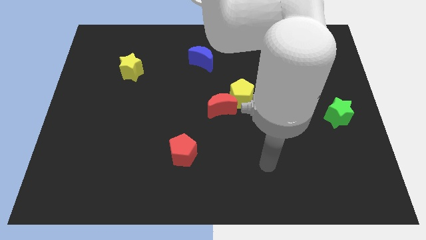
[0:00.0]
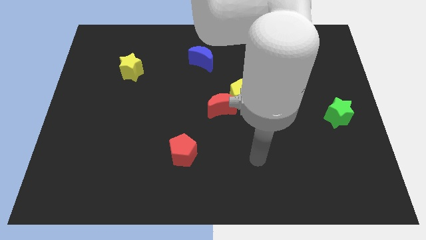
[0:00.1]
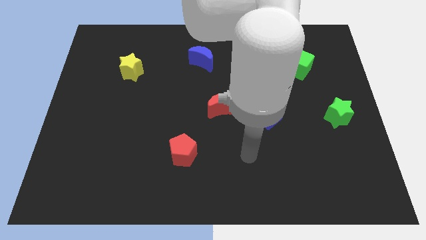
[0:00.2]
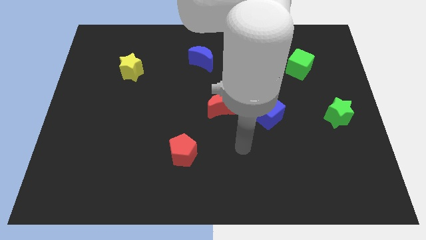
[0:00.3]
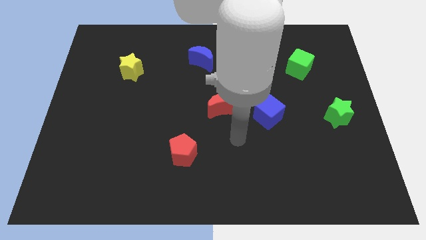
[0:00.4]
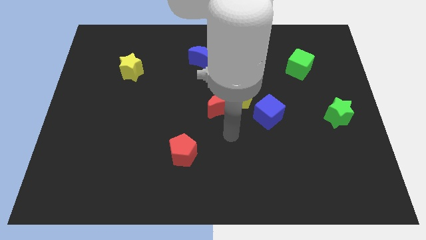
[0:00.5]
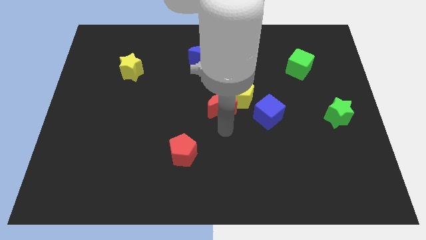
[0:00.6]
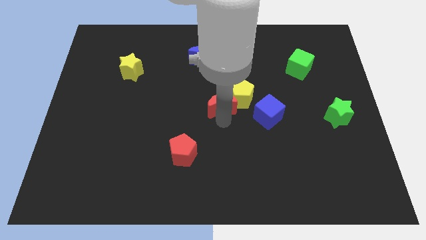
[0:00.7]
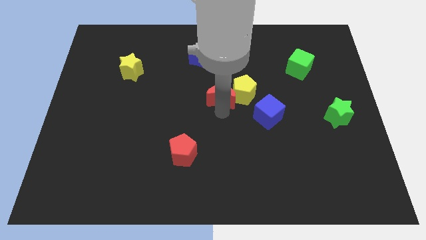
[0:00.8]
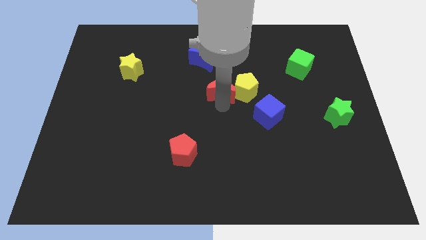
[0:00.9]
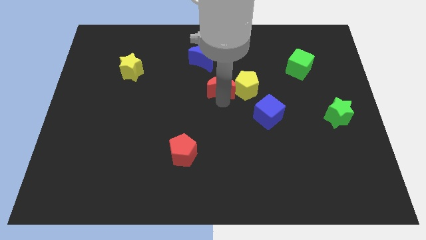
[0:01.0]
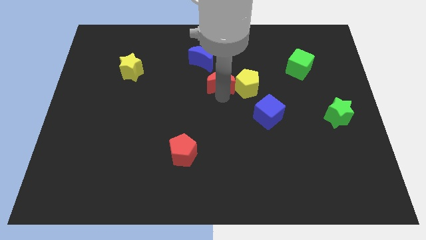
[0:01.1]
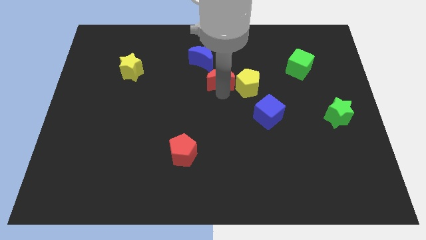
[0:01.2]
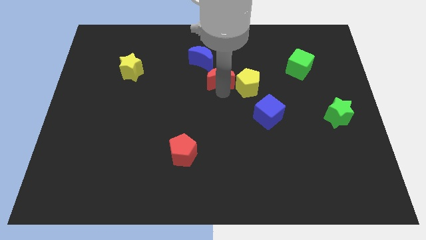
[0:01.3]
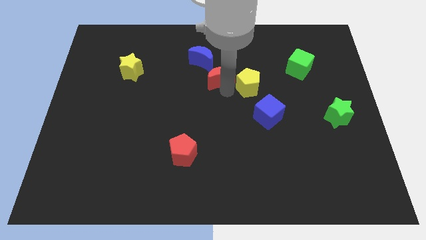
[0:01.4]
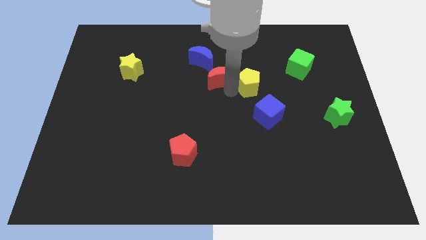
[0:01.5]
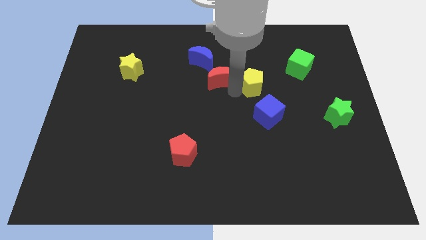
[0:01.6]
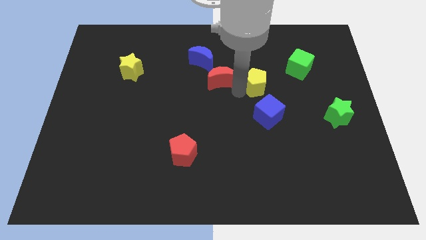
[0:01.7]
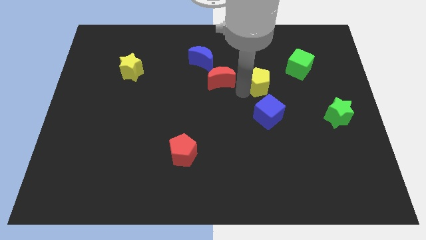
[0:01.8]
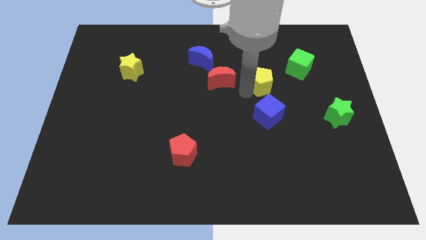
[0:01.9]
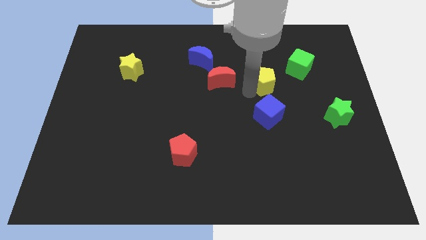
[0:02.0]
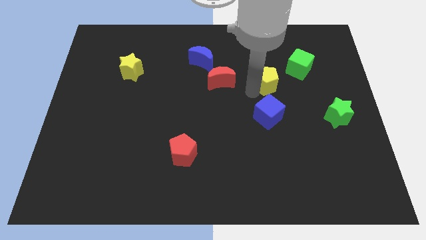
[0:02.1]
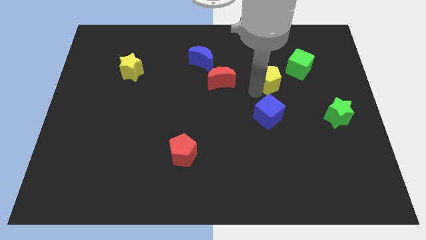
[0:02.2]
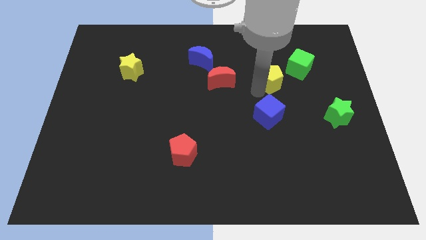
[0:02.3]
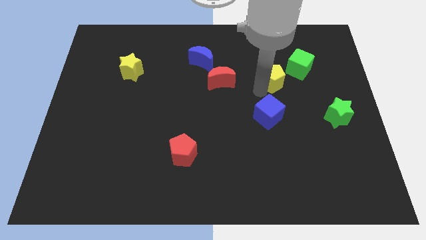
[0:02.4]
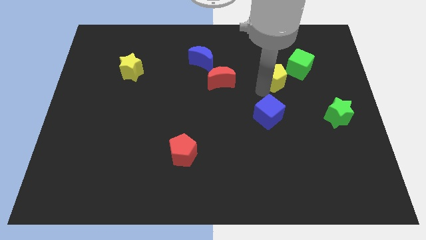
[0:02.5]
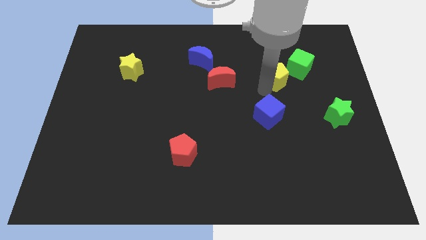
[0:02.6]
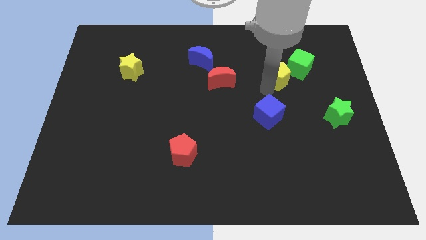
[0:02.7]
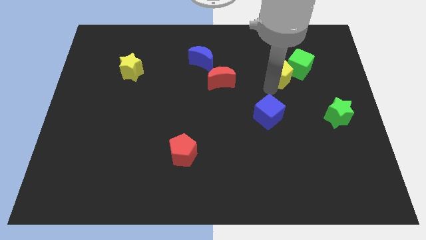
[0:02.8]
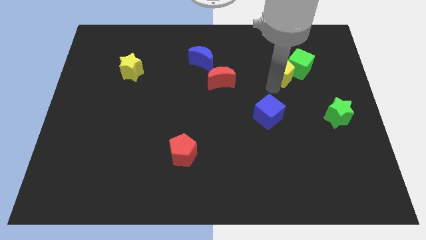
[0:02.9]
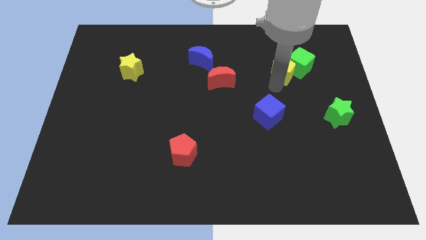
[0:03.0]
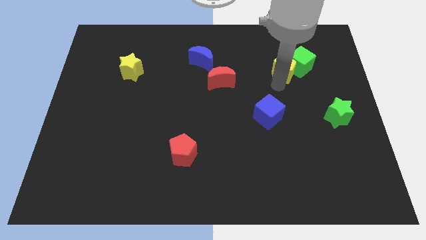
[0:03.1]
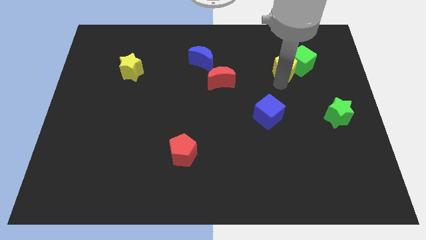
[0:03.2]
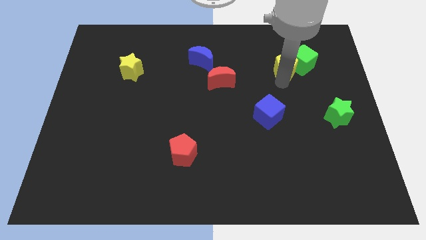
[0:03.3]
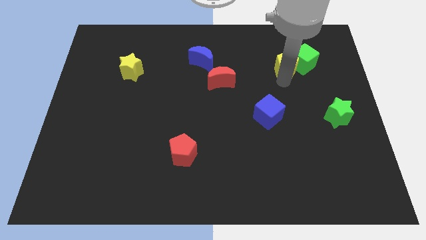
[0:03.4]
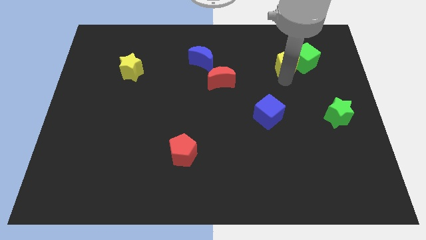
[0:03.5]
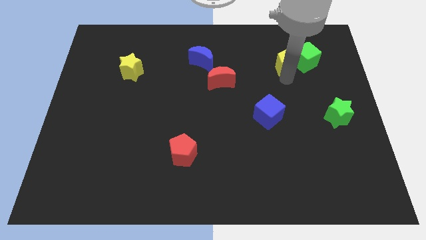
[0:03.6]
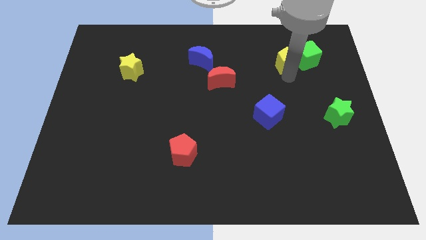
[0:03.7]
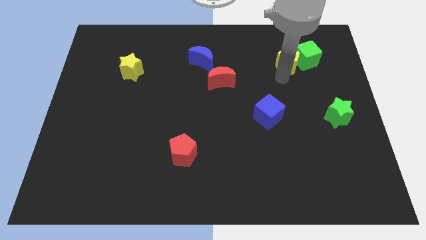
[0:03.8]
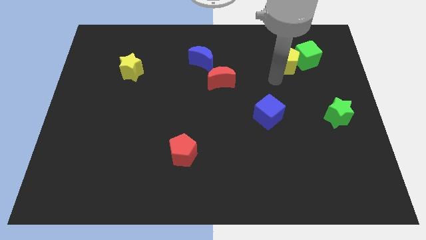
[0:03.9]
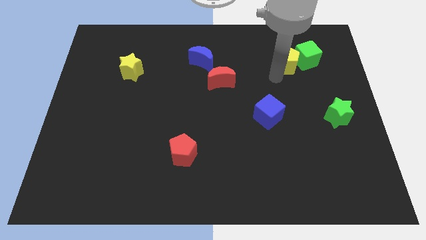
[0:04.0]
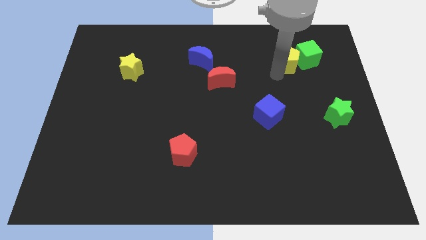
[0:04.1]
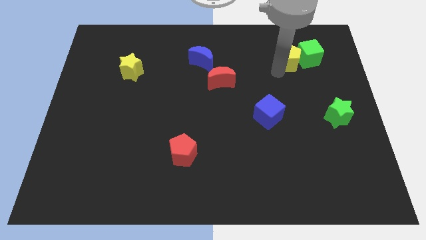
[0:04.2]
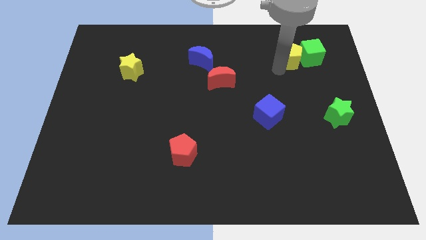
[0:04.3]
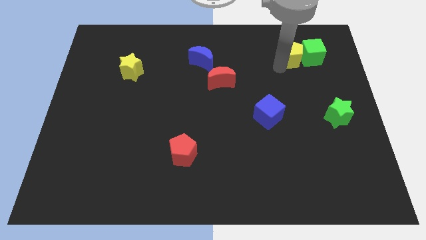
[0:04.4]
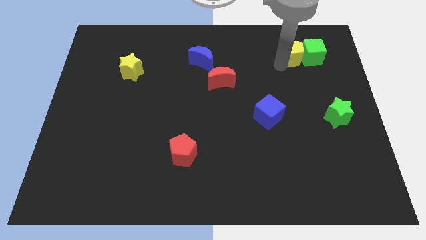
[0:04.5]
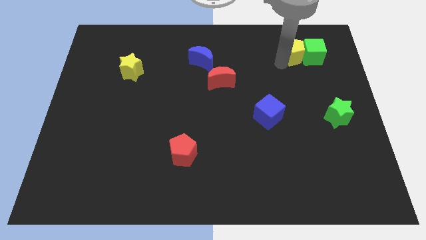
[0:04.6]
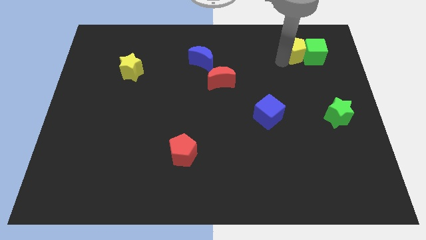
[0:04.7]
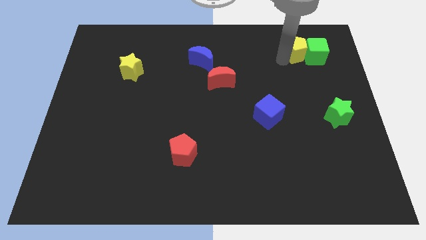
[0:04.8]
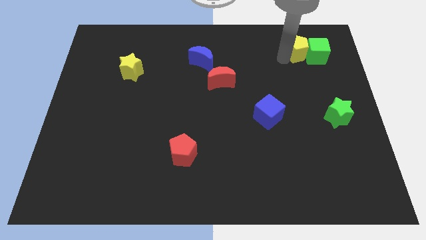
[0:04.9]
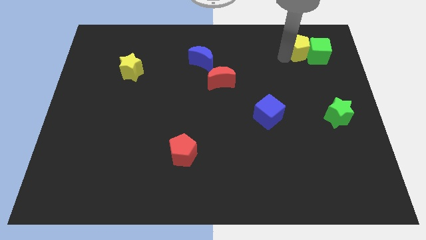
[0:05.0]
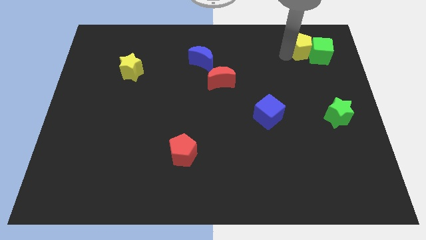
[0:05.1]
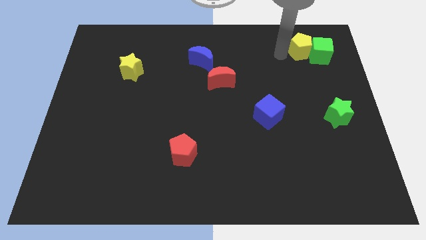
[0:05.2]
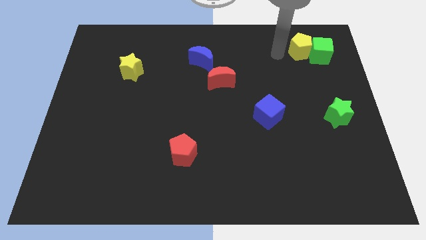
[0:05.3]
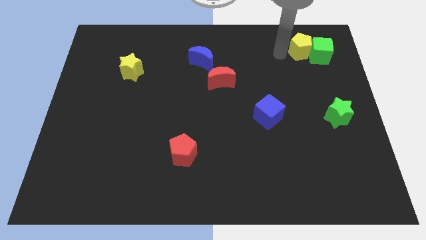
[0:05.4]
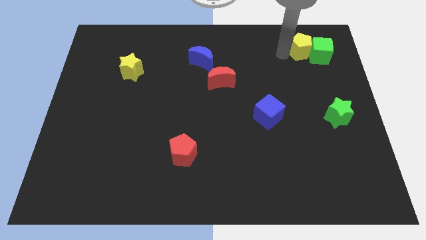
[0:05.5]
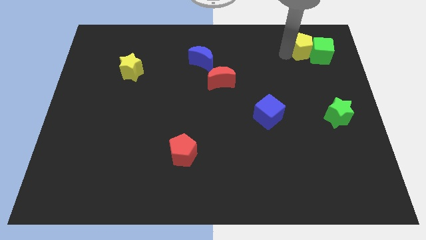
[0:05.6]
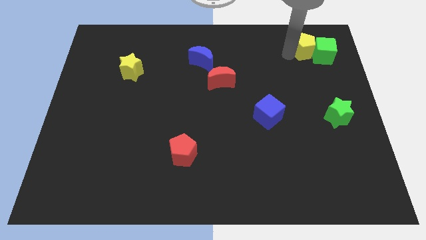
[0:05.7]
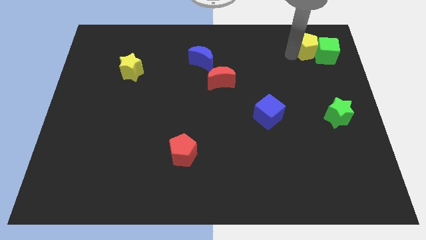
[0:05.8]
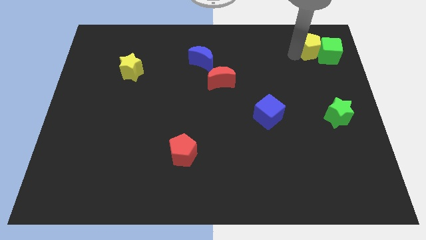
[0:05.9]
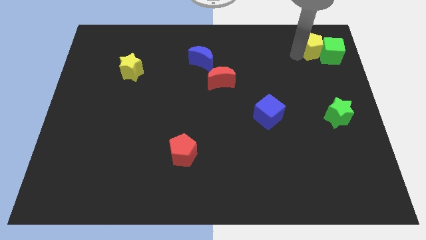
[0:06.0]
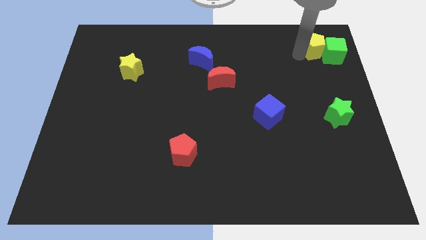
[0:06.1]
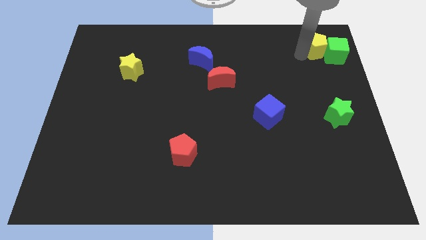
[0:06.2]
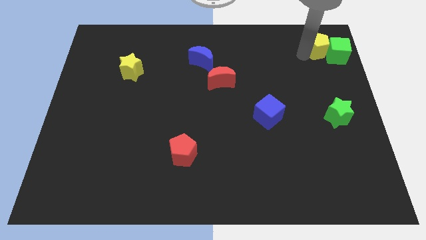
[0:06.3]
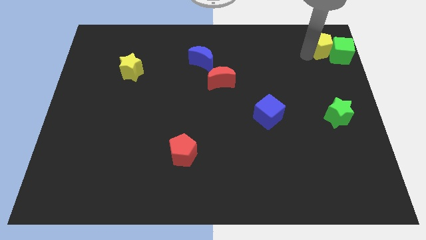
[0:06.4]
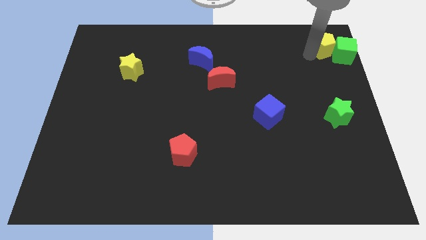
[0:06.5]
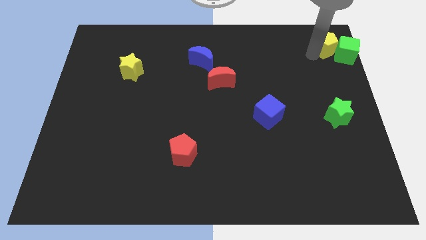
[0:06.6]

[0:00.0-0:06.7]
move the yellow pentagon to the upper right corner
